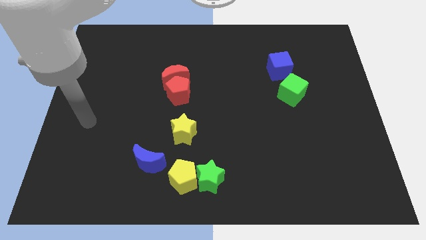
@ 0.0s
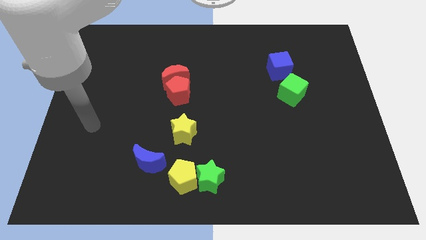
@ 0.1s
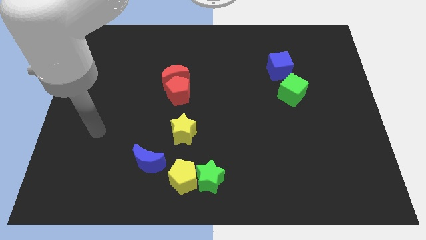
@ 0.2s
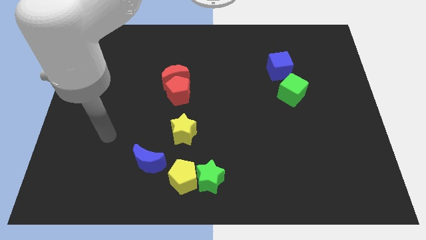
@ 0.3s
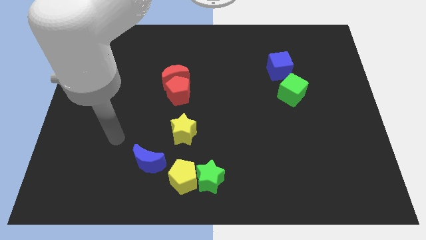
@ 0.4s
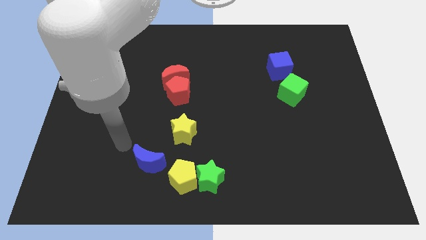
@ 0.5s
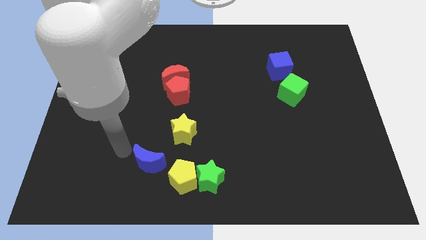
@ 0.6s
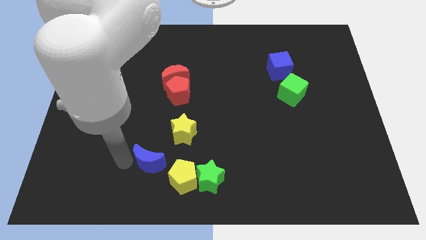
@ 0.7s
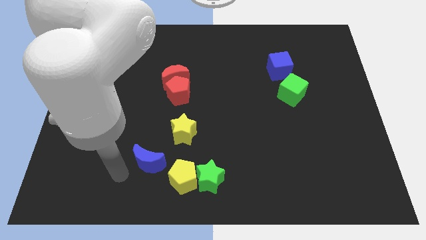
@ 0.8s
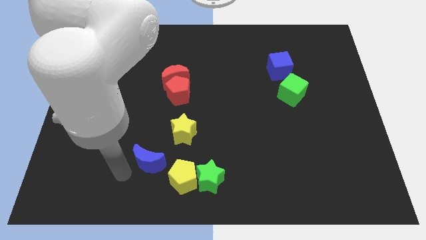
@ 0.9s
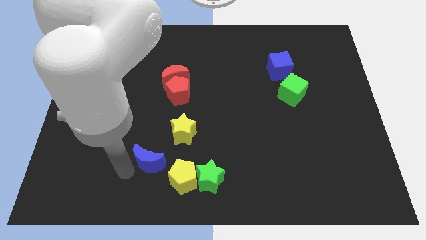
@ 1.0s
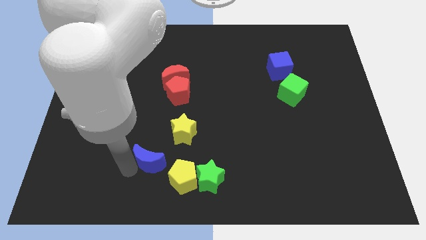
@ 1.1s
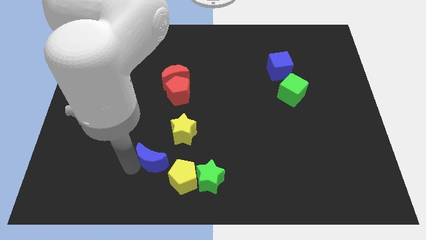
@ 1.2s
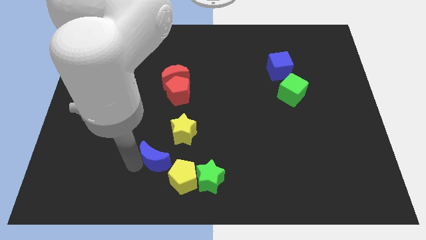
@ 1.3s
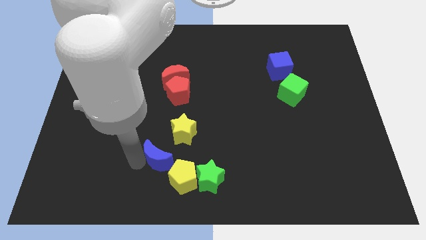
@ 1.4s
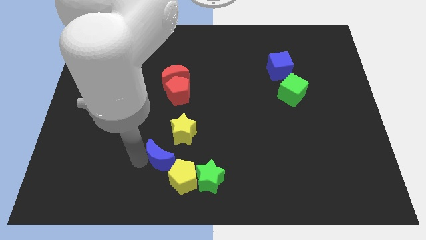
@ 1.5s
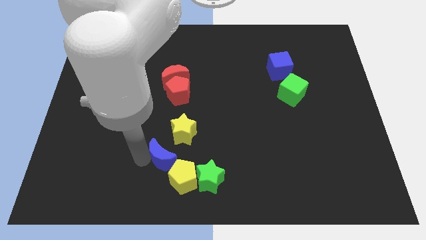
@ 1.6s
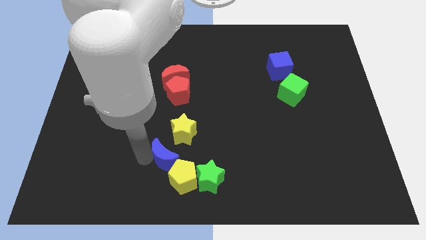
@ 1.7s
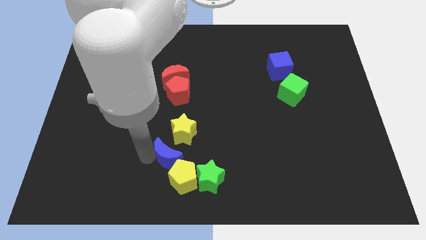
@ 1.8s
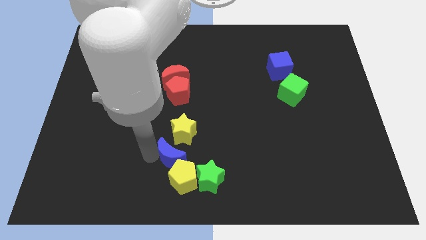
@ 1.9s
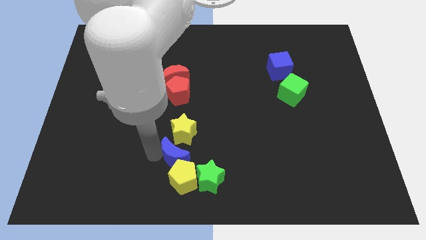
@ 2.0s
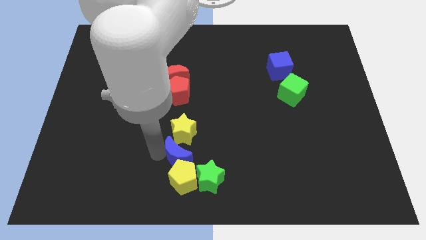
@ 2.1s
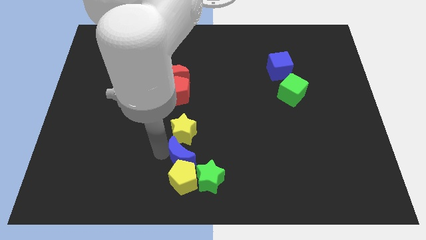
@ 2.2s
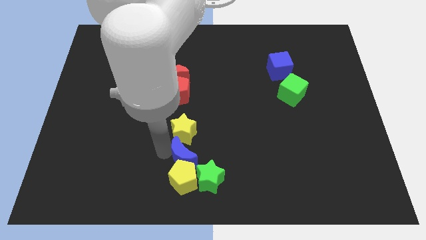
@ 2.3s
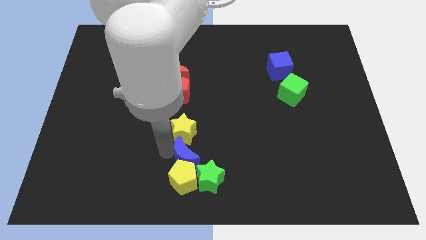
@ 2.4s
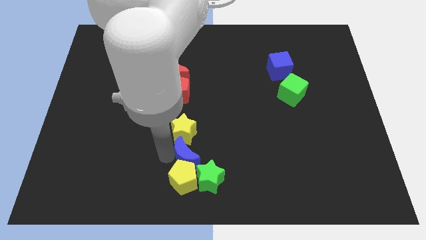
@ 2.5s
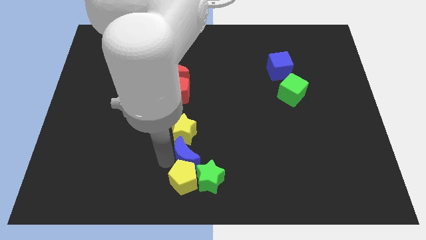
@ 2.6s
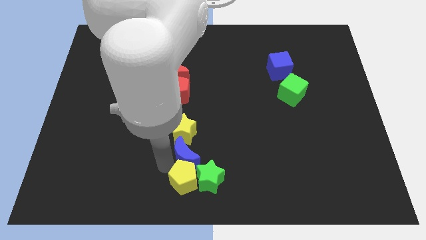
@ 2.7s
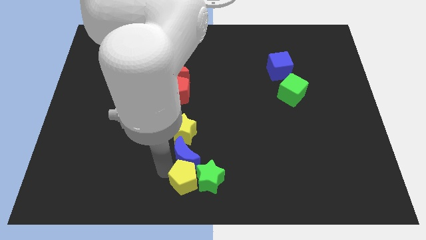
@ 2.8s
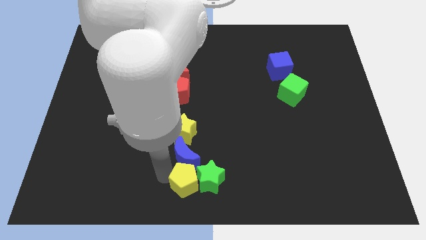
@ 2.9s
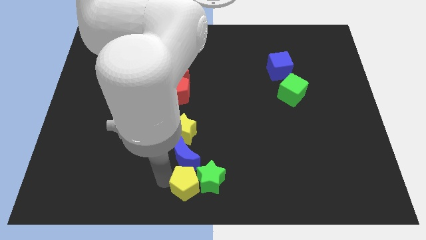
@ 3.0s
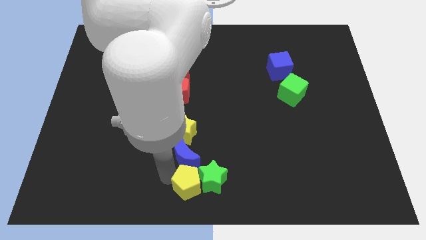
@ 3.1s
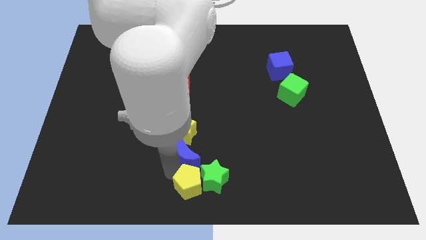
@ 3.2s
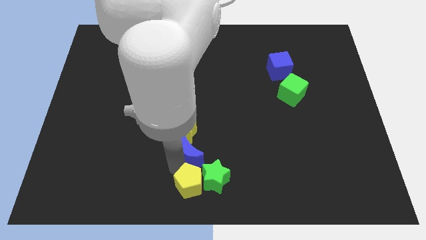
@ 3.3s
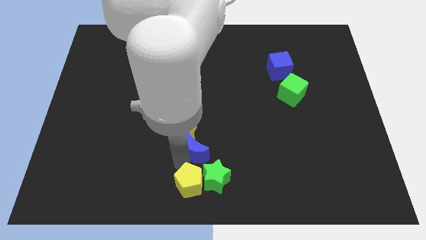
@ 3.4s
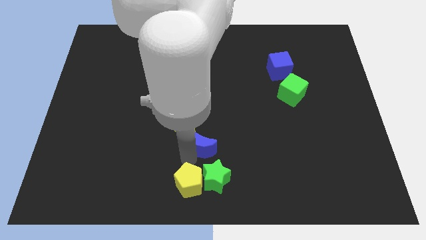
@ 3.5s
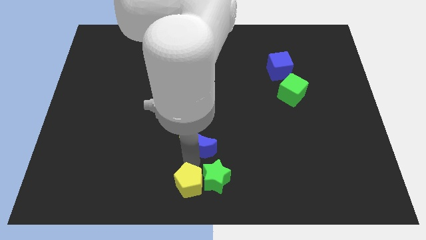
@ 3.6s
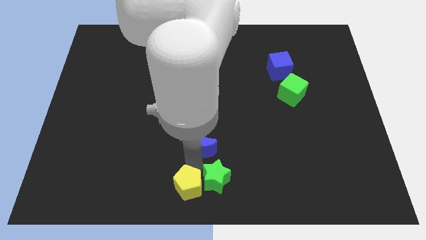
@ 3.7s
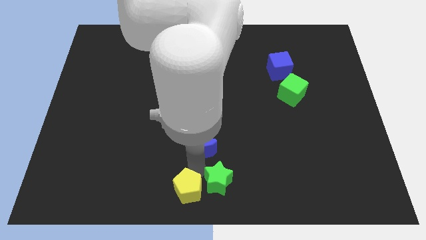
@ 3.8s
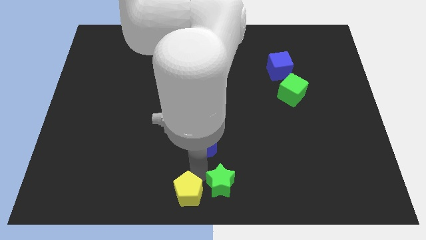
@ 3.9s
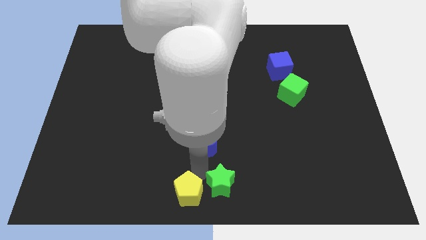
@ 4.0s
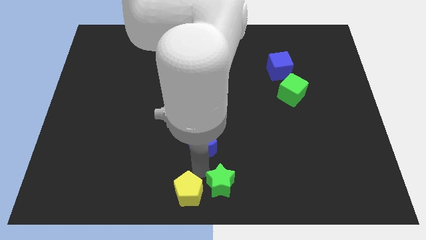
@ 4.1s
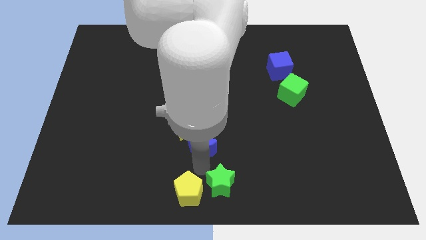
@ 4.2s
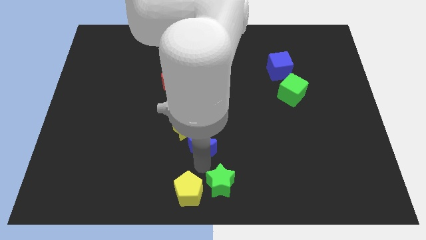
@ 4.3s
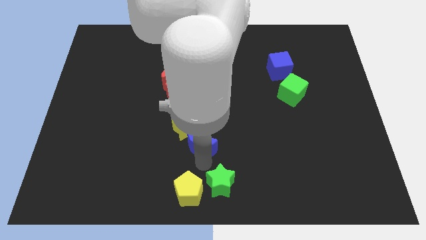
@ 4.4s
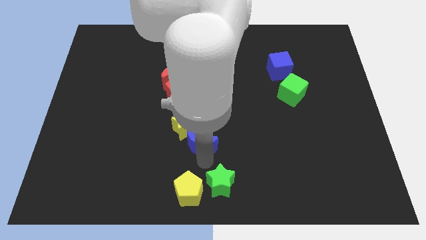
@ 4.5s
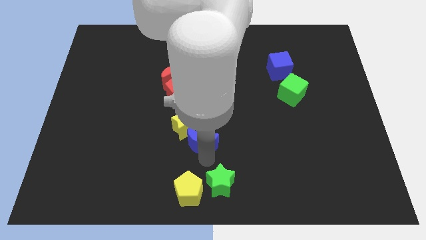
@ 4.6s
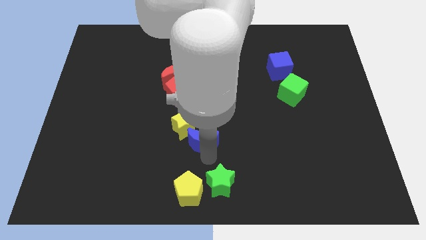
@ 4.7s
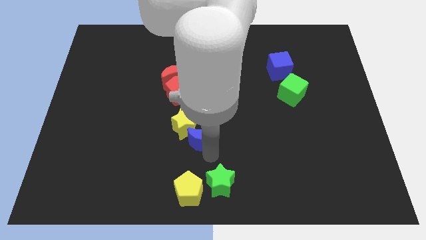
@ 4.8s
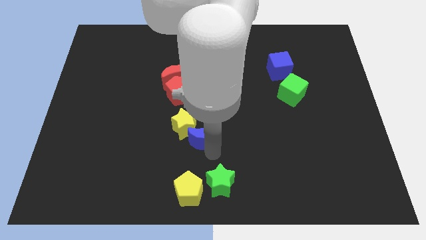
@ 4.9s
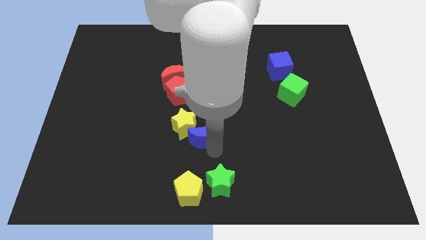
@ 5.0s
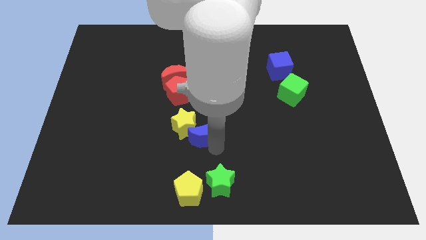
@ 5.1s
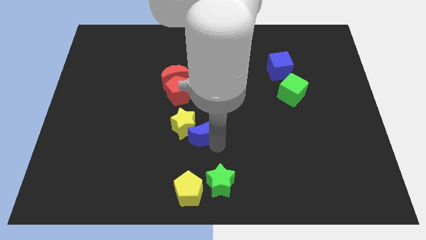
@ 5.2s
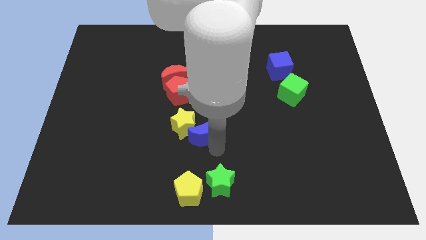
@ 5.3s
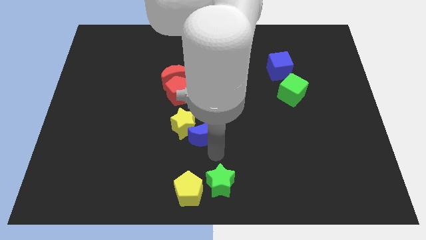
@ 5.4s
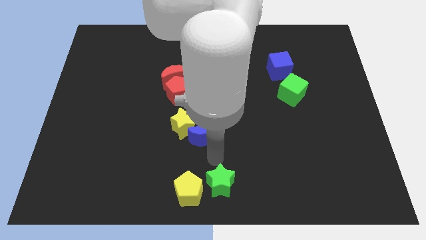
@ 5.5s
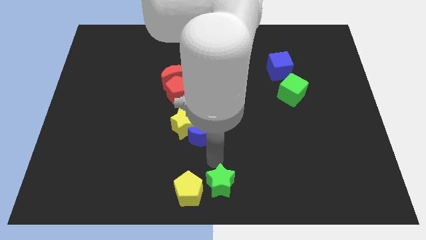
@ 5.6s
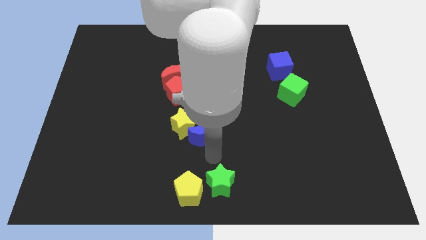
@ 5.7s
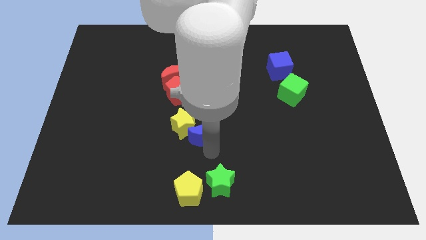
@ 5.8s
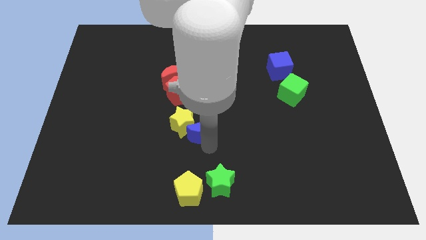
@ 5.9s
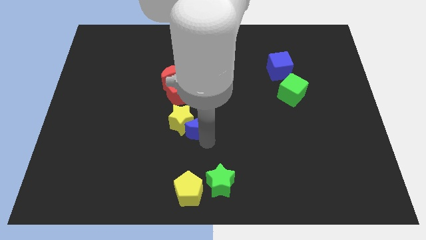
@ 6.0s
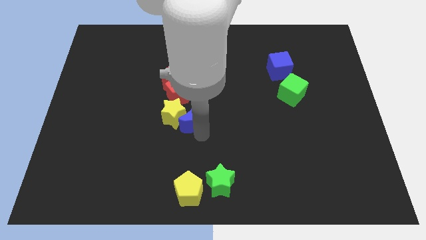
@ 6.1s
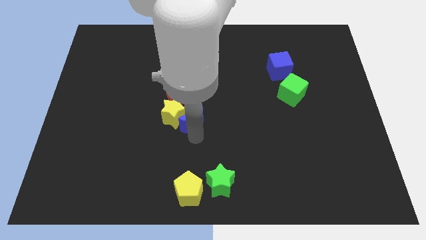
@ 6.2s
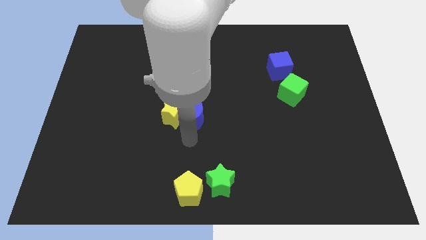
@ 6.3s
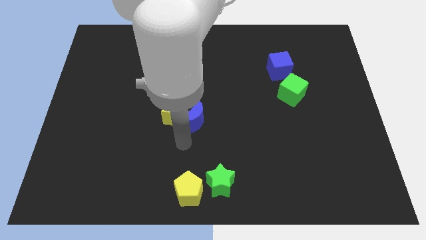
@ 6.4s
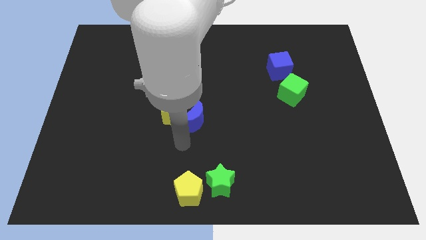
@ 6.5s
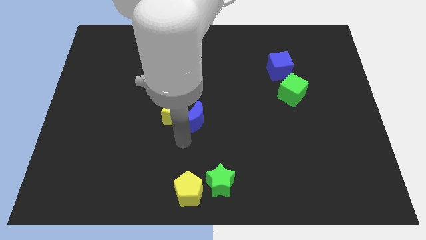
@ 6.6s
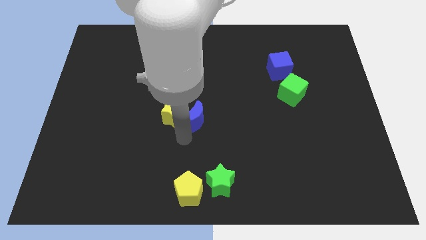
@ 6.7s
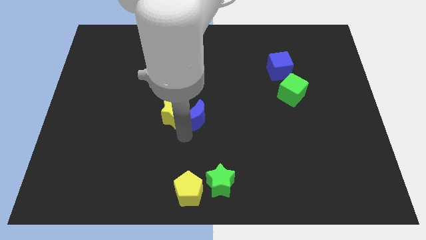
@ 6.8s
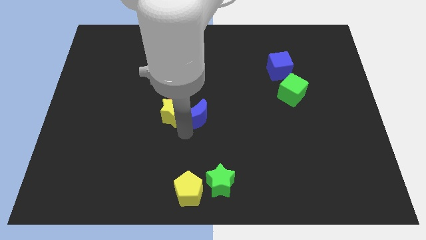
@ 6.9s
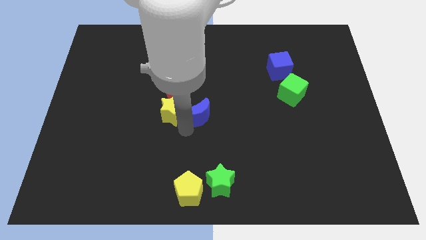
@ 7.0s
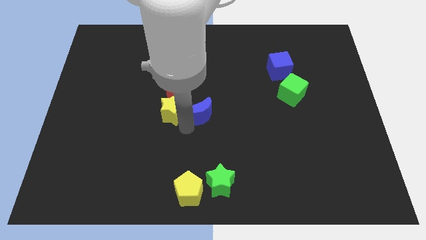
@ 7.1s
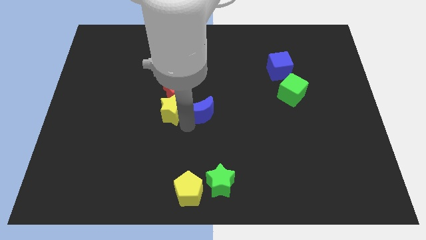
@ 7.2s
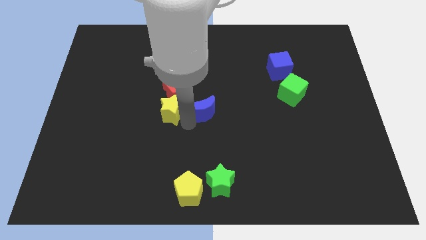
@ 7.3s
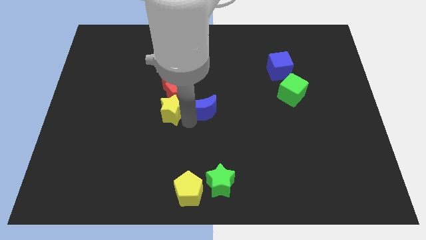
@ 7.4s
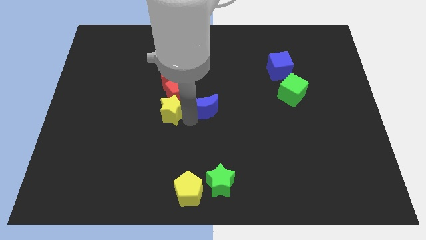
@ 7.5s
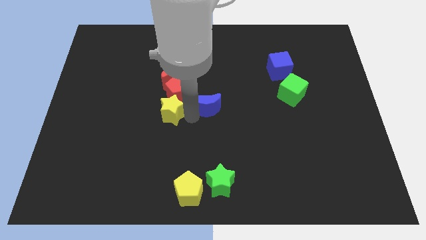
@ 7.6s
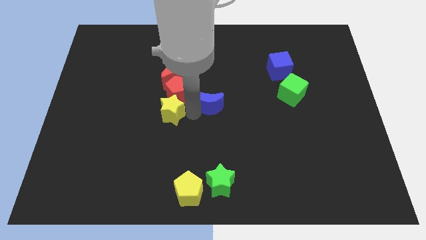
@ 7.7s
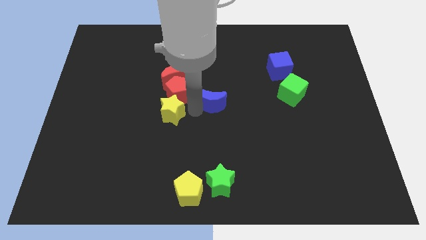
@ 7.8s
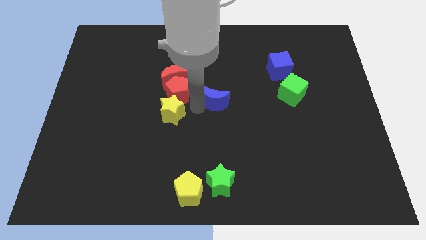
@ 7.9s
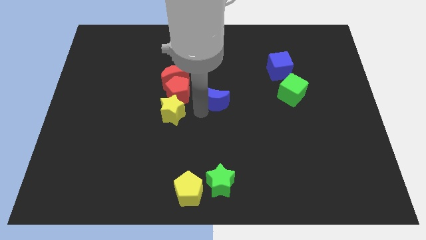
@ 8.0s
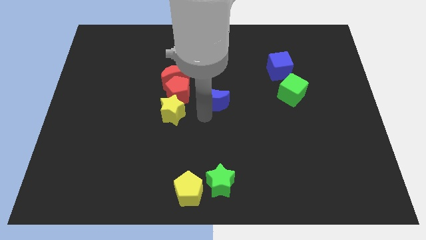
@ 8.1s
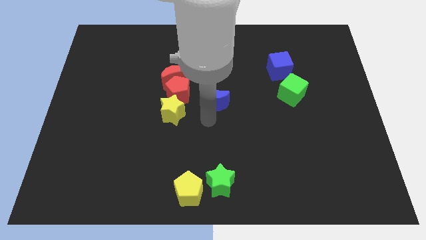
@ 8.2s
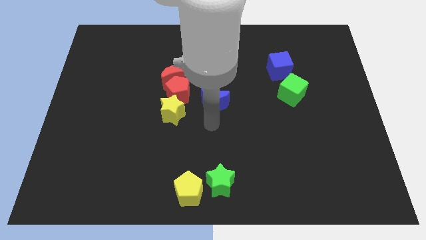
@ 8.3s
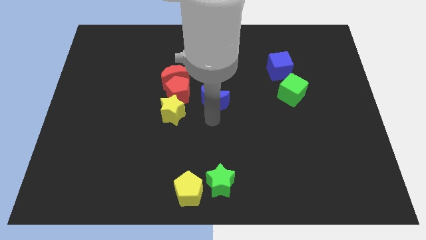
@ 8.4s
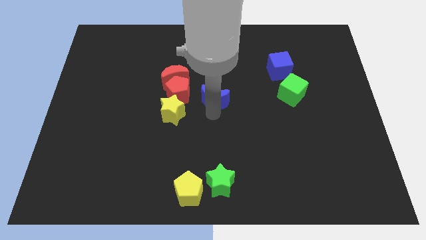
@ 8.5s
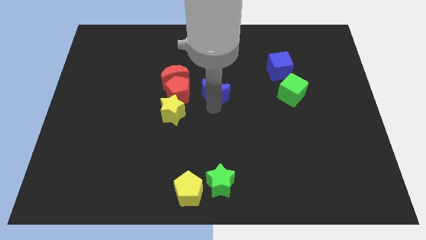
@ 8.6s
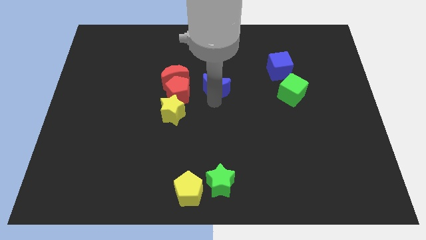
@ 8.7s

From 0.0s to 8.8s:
put the blue moon right of the red moon
